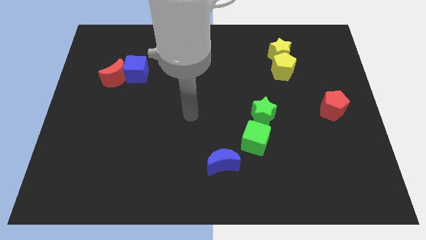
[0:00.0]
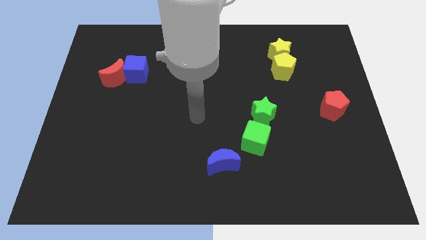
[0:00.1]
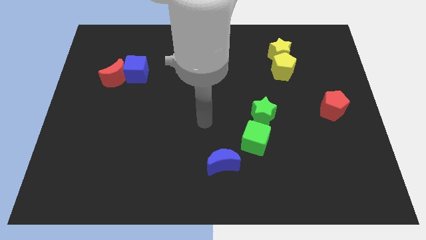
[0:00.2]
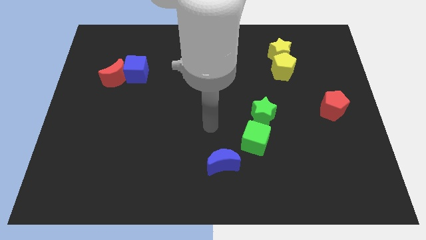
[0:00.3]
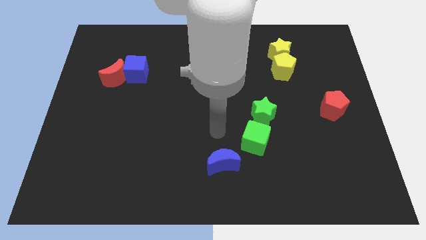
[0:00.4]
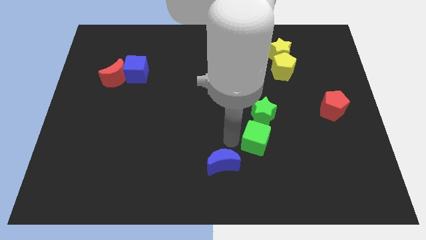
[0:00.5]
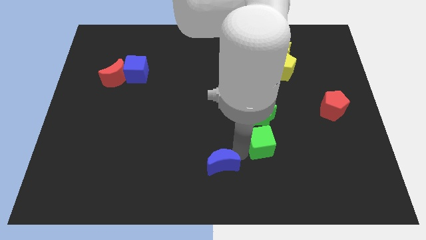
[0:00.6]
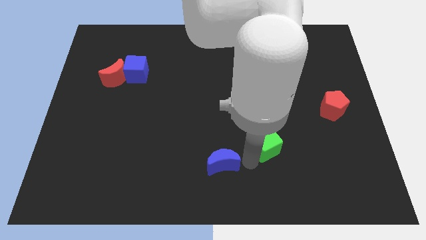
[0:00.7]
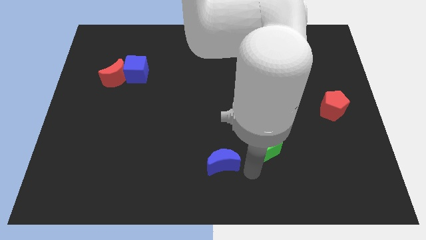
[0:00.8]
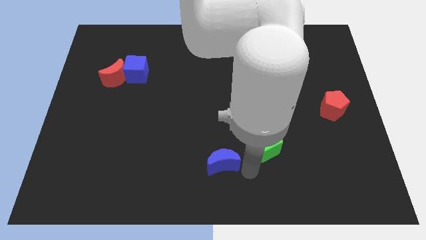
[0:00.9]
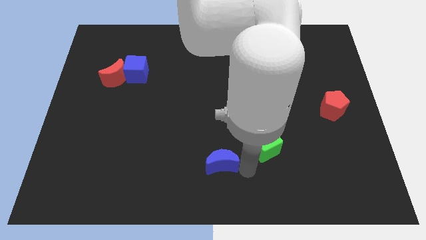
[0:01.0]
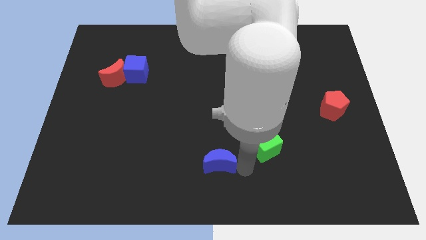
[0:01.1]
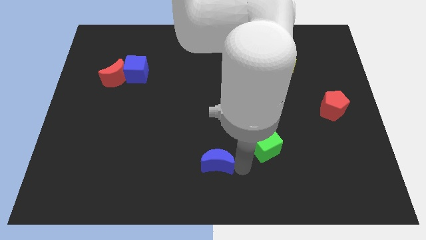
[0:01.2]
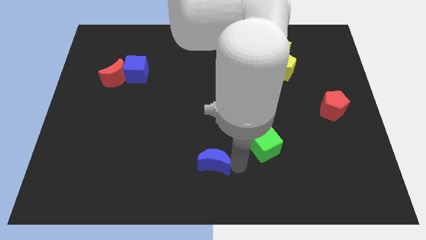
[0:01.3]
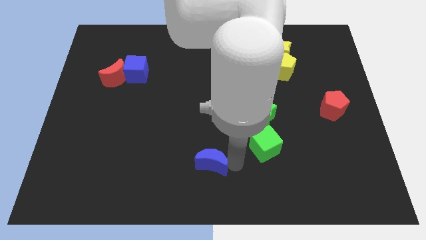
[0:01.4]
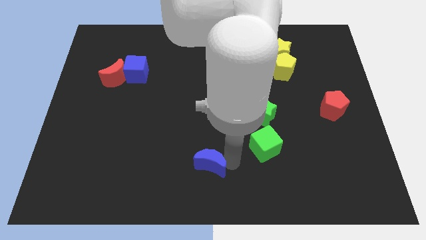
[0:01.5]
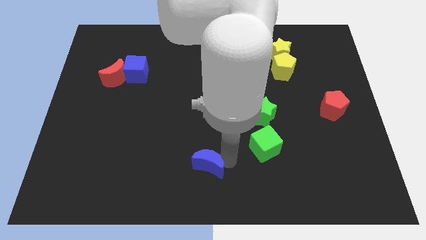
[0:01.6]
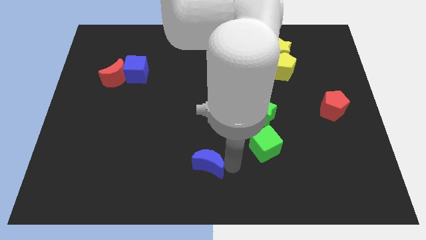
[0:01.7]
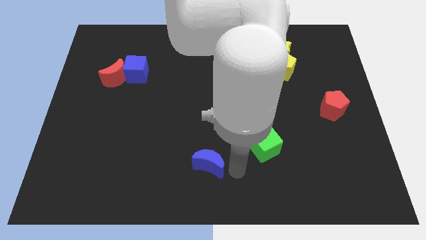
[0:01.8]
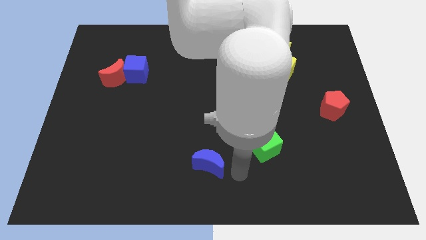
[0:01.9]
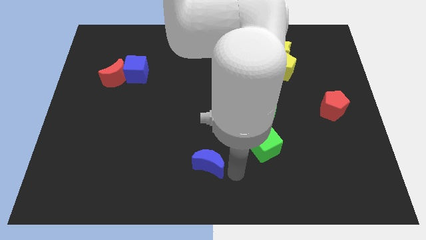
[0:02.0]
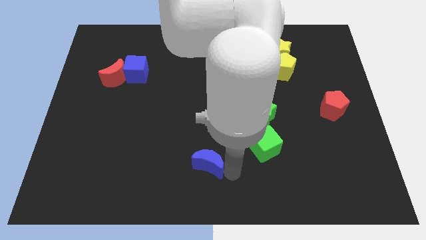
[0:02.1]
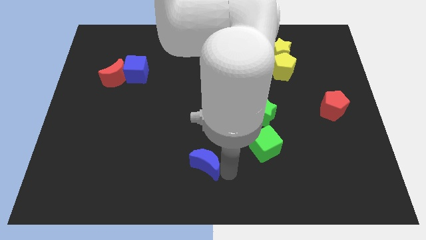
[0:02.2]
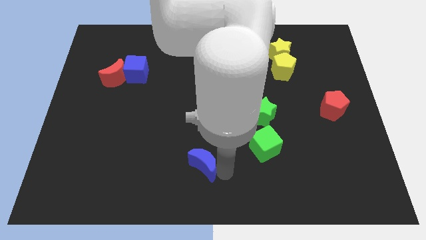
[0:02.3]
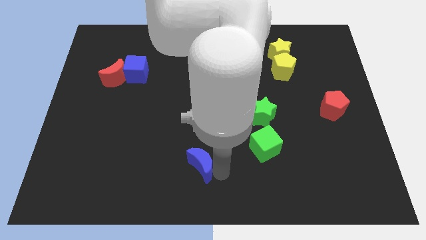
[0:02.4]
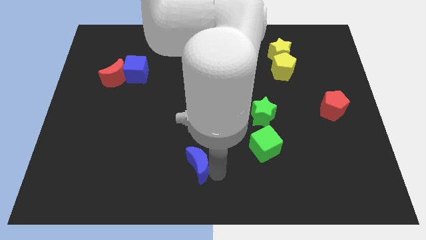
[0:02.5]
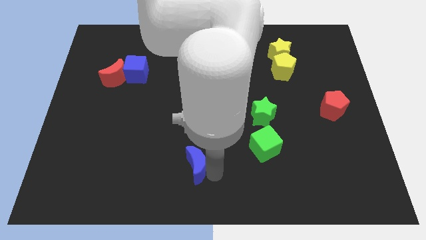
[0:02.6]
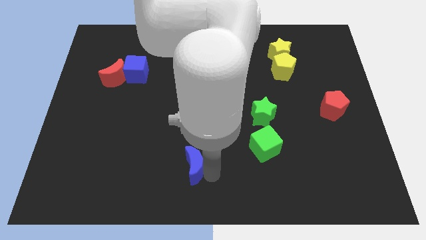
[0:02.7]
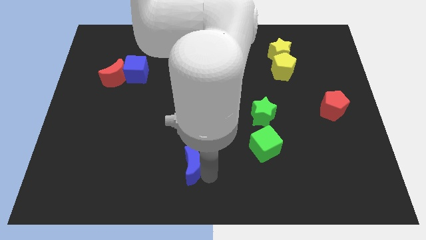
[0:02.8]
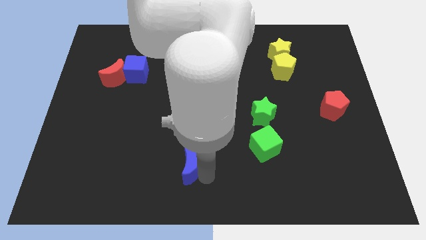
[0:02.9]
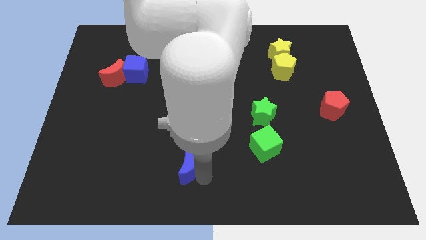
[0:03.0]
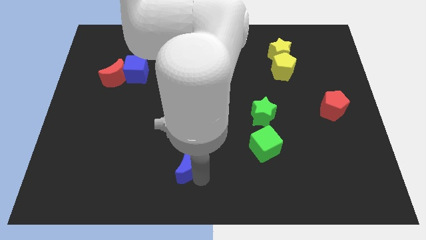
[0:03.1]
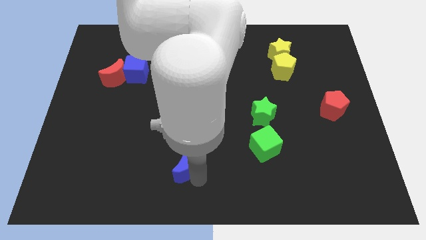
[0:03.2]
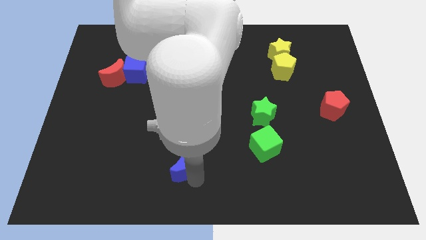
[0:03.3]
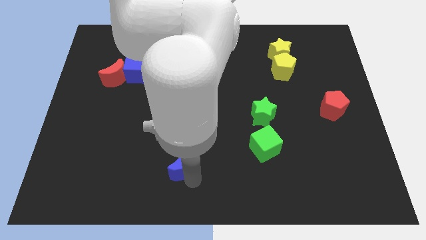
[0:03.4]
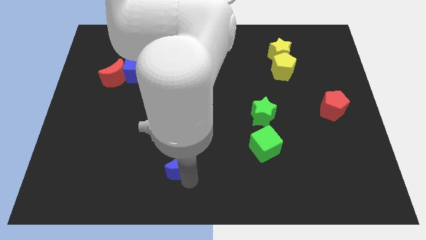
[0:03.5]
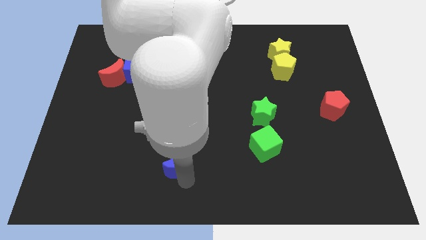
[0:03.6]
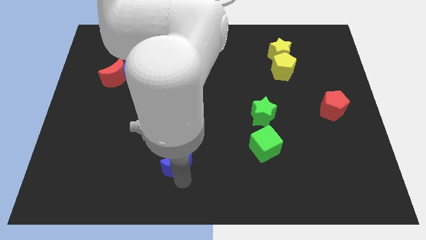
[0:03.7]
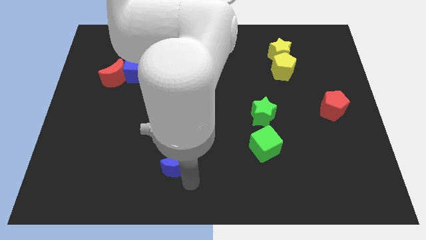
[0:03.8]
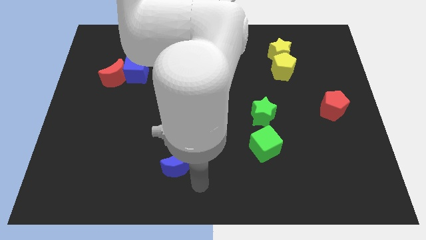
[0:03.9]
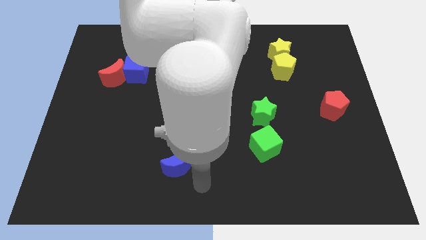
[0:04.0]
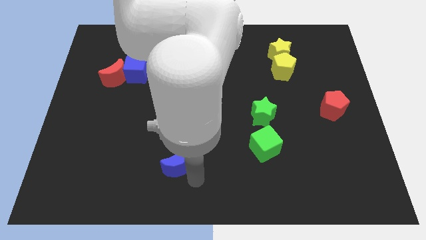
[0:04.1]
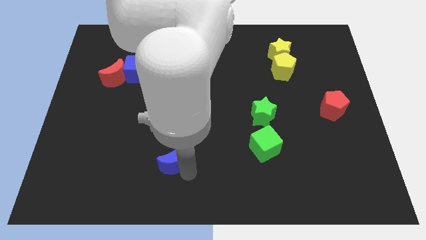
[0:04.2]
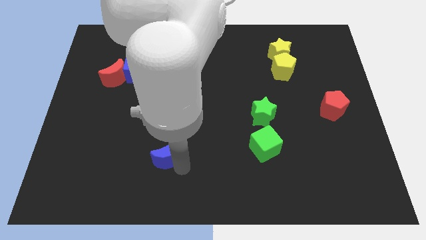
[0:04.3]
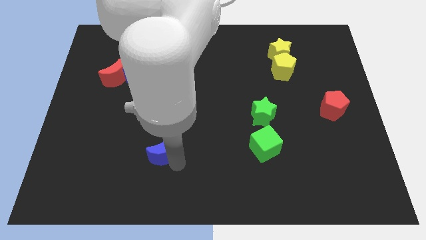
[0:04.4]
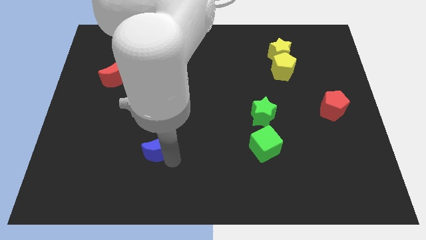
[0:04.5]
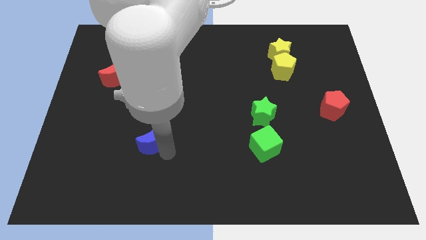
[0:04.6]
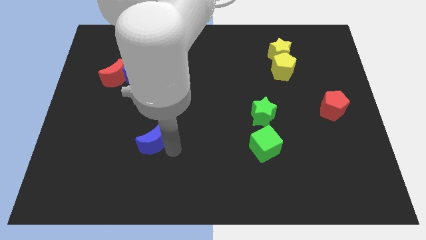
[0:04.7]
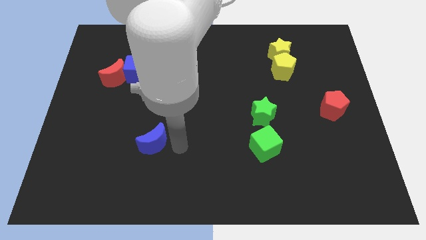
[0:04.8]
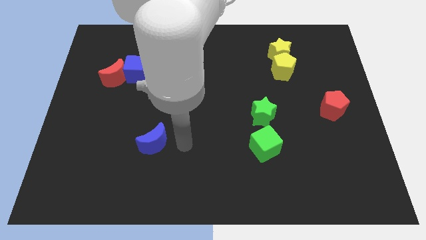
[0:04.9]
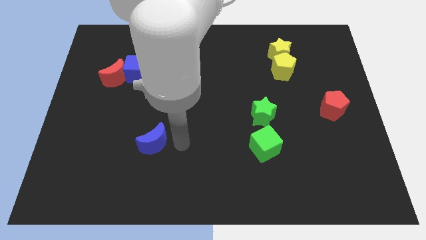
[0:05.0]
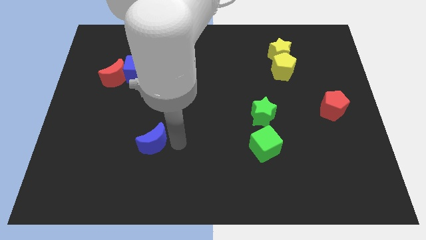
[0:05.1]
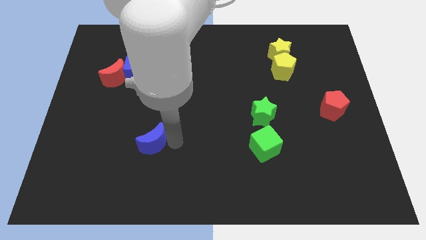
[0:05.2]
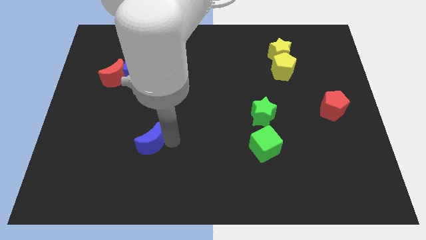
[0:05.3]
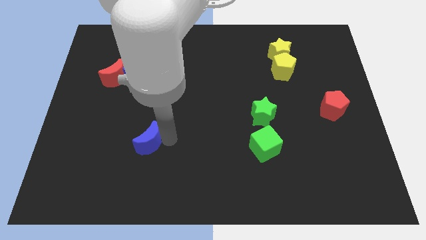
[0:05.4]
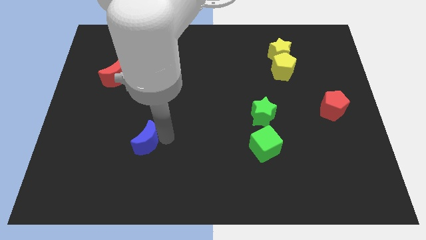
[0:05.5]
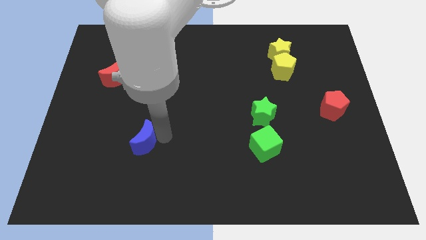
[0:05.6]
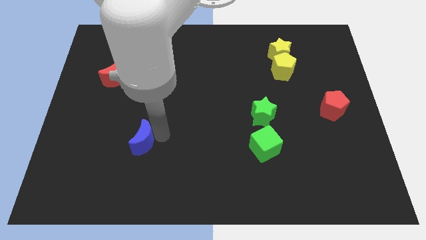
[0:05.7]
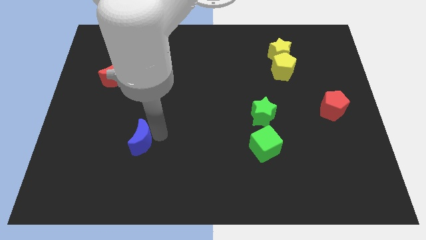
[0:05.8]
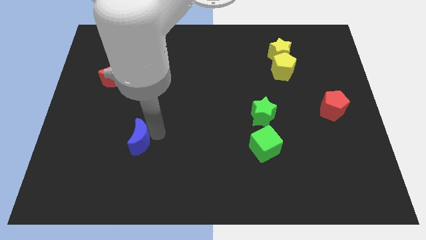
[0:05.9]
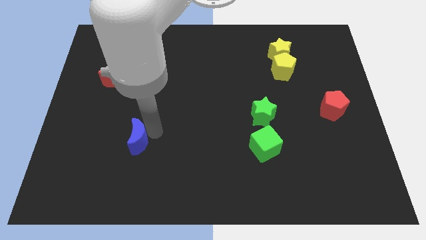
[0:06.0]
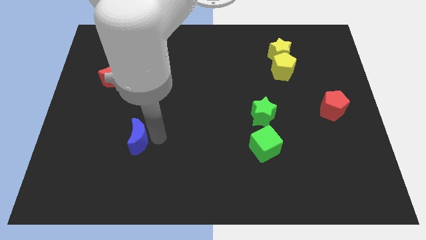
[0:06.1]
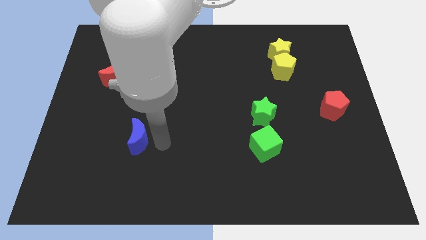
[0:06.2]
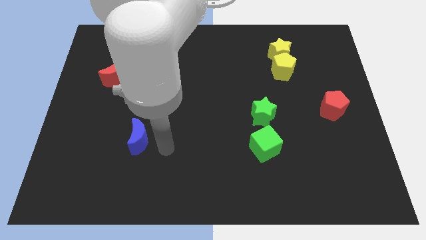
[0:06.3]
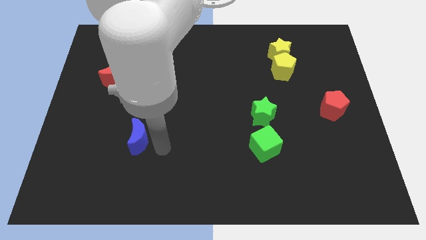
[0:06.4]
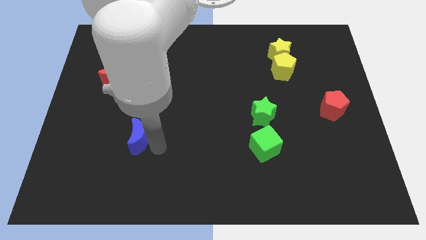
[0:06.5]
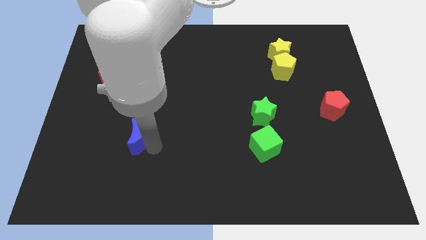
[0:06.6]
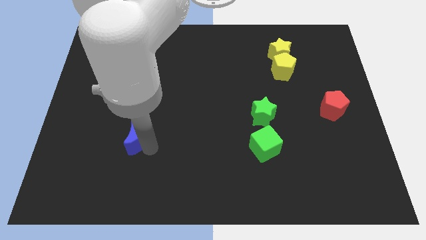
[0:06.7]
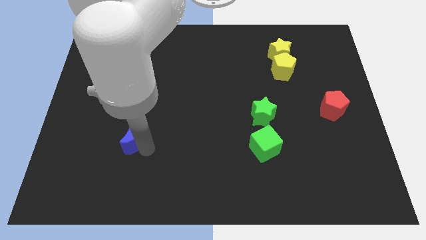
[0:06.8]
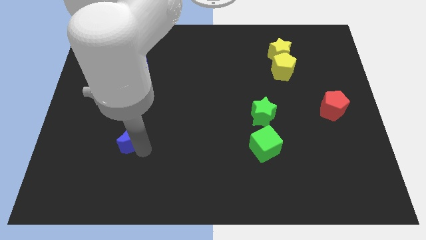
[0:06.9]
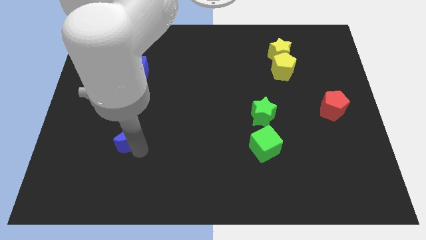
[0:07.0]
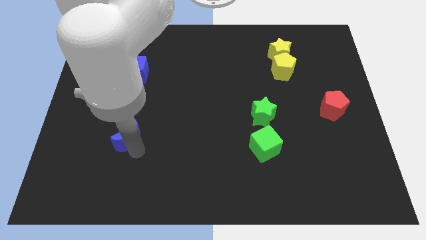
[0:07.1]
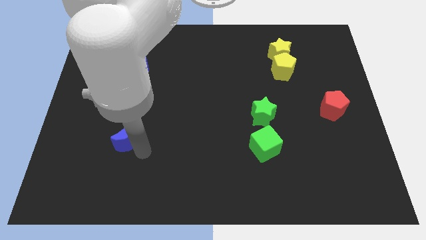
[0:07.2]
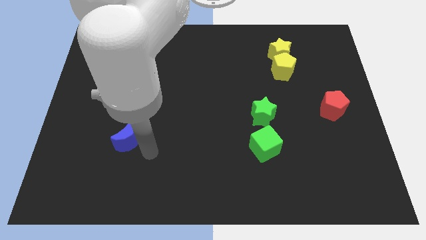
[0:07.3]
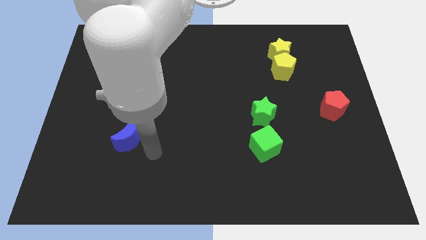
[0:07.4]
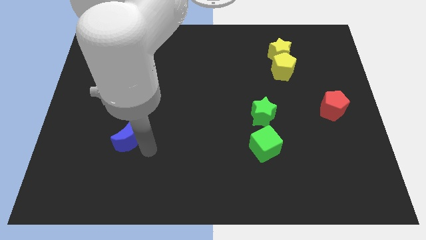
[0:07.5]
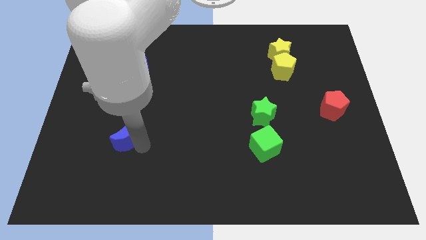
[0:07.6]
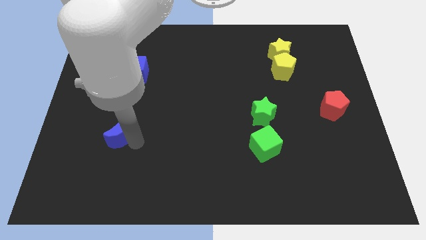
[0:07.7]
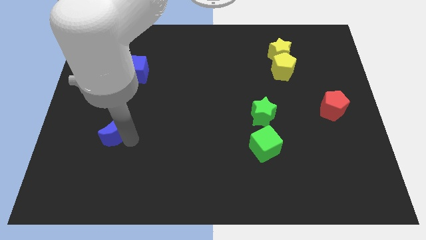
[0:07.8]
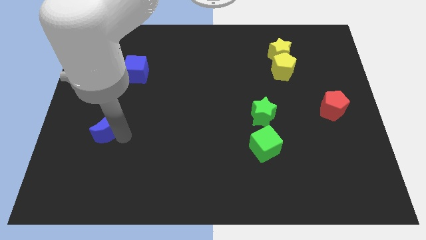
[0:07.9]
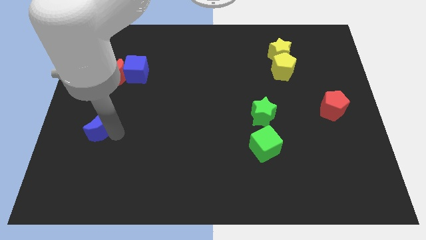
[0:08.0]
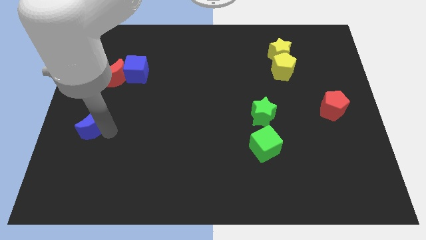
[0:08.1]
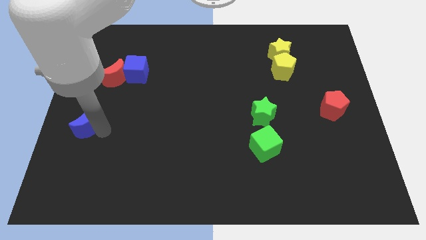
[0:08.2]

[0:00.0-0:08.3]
push the blue moon to the left side
